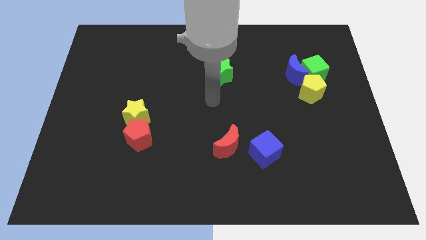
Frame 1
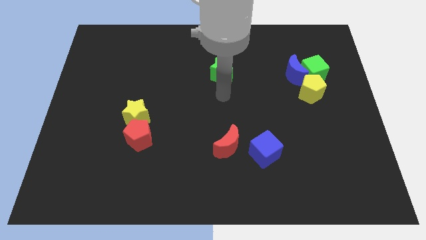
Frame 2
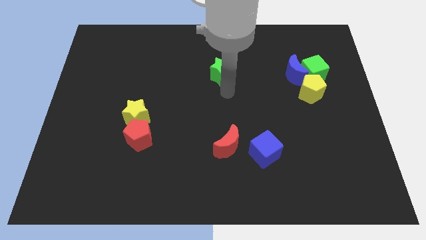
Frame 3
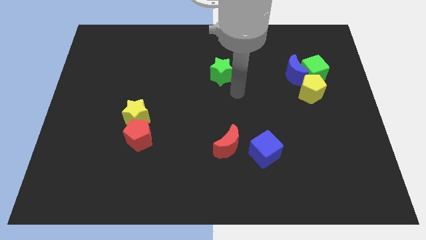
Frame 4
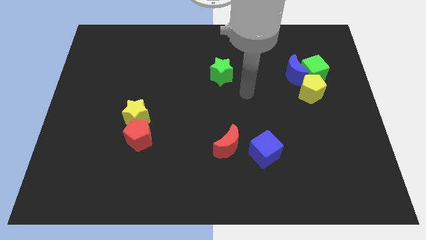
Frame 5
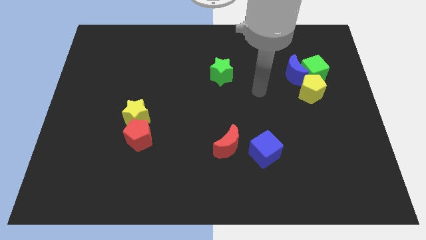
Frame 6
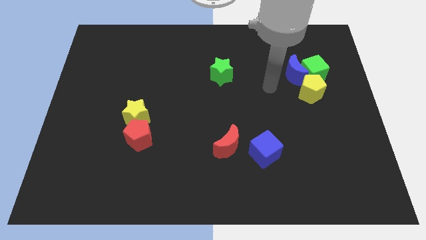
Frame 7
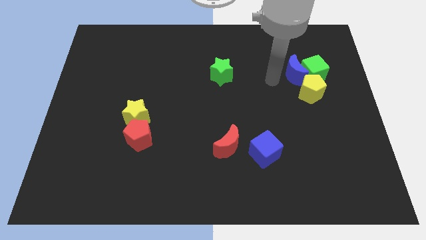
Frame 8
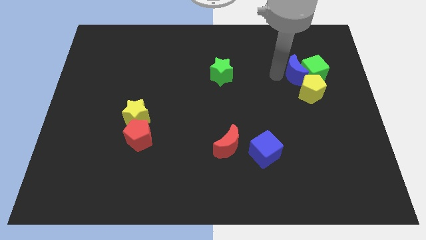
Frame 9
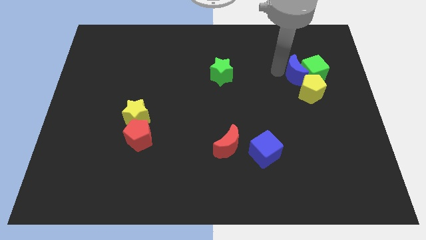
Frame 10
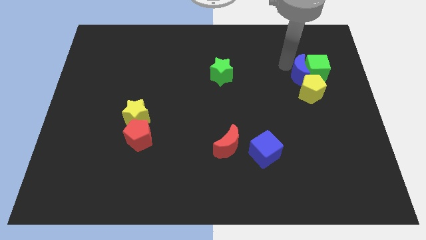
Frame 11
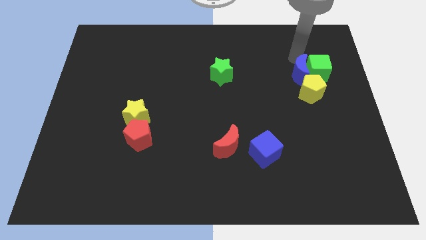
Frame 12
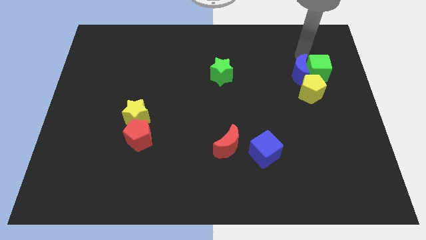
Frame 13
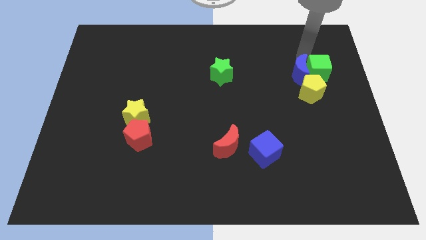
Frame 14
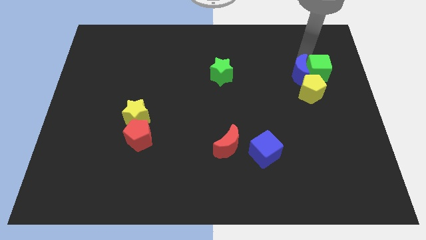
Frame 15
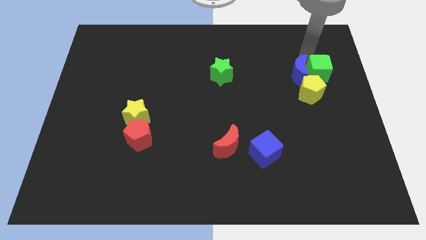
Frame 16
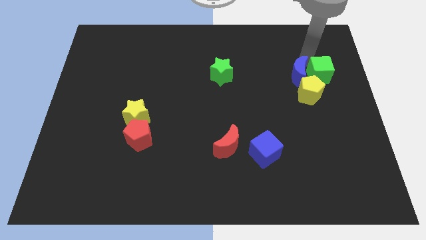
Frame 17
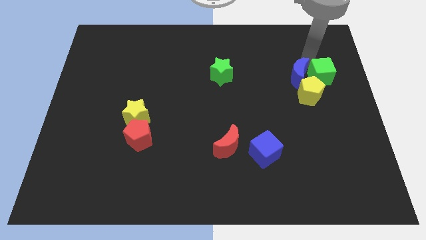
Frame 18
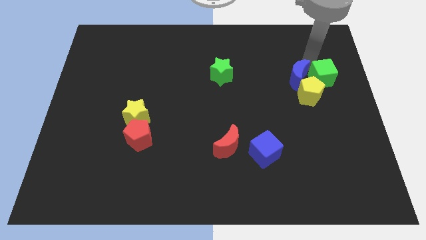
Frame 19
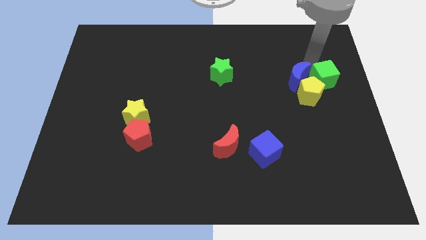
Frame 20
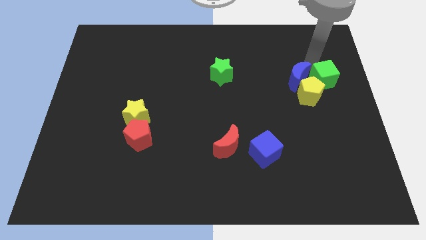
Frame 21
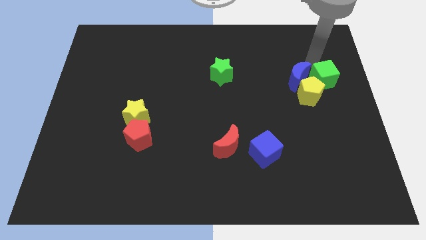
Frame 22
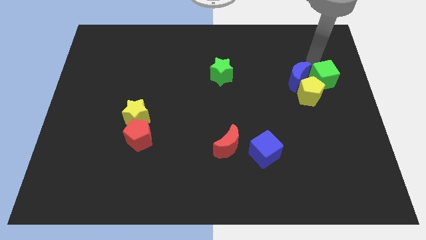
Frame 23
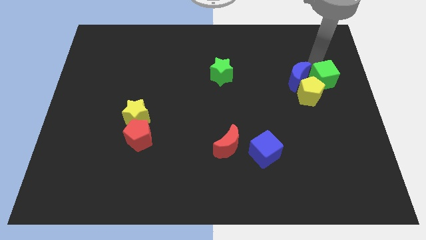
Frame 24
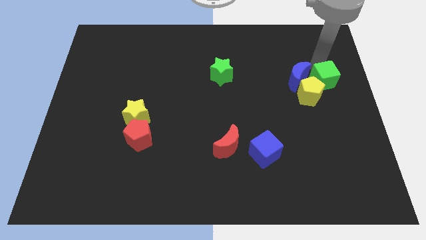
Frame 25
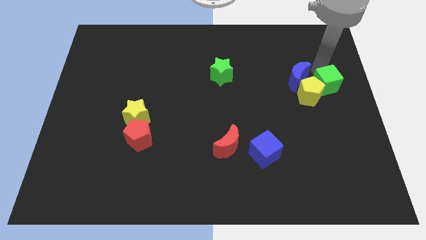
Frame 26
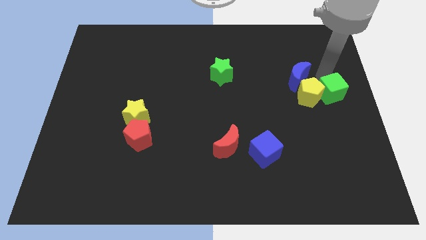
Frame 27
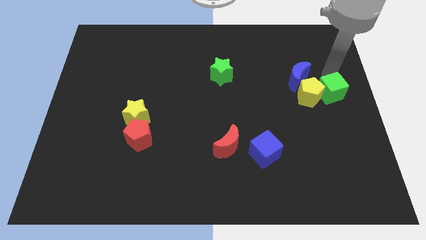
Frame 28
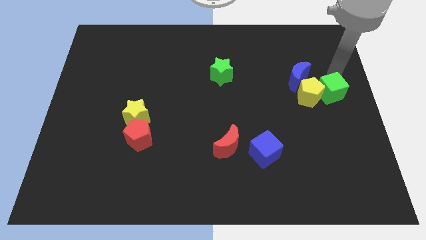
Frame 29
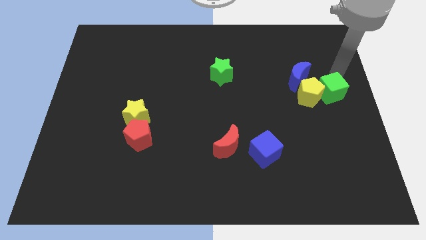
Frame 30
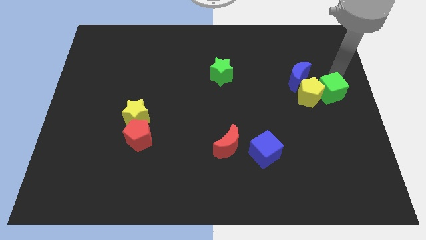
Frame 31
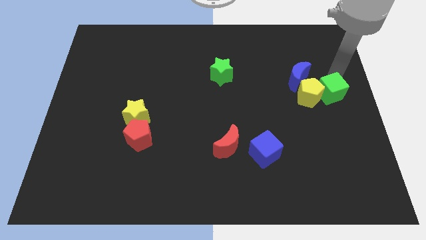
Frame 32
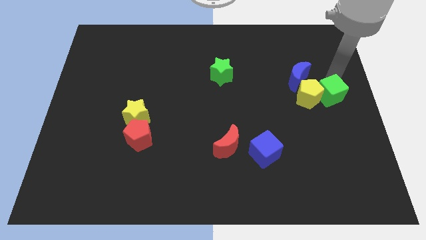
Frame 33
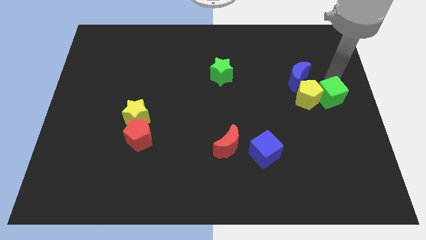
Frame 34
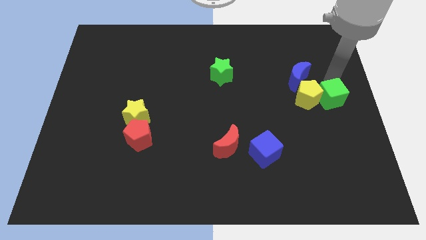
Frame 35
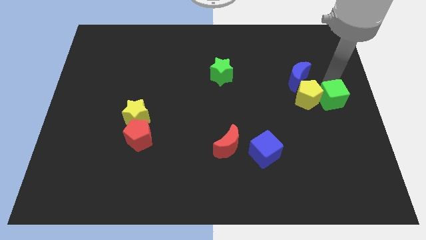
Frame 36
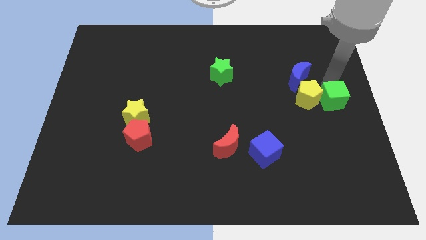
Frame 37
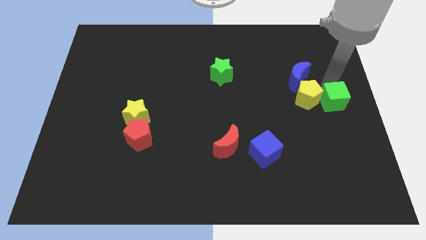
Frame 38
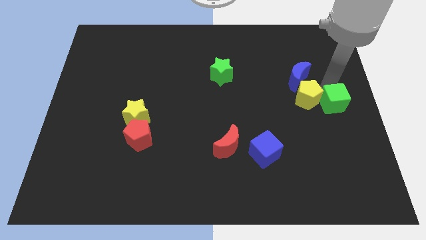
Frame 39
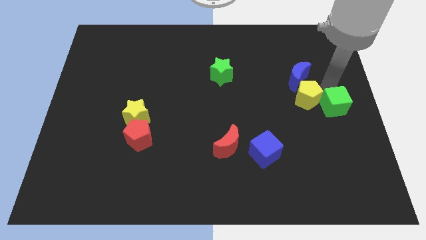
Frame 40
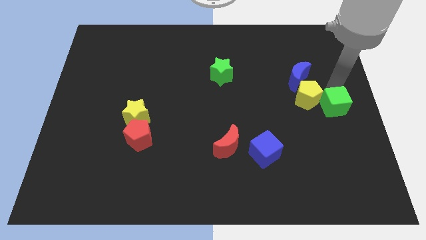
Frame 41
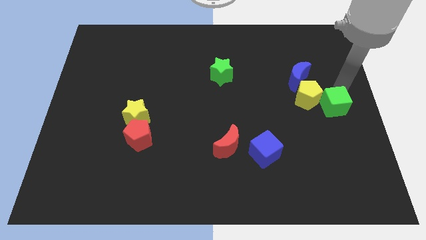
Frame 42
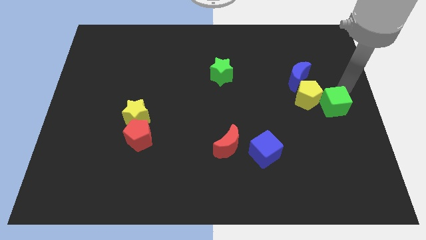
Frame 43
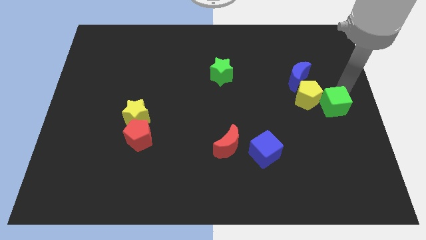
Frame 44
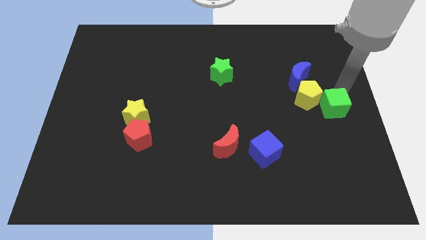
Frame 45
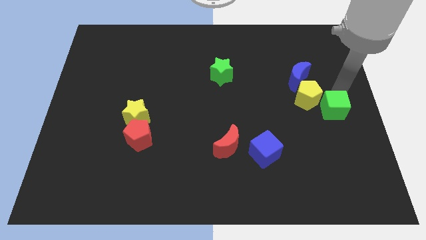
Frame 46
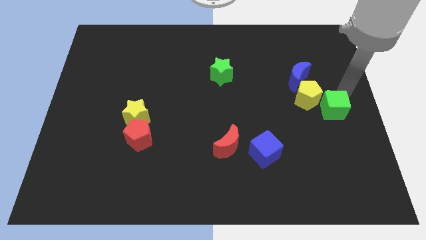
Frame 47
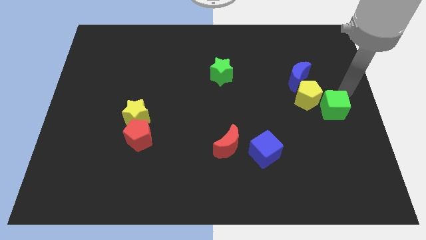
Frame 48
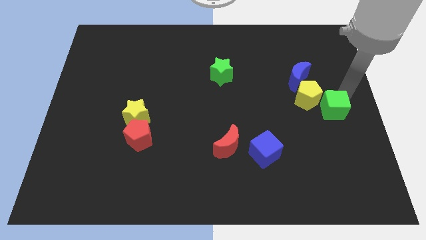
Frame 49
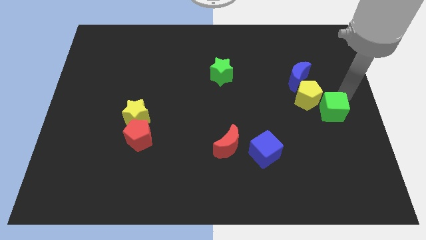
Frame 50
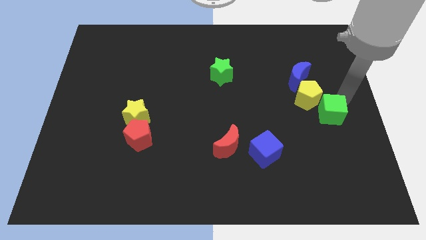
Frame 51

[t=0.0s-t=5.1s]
slide the green cube to the bottom side of the yellow pentagon

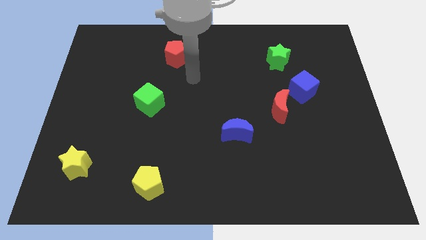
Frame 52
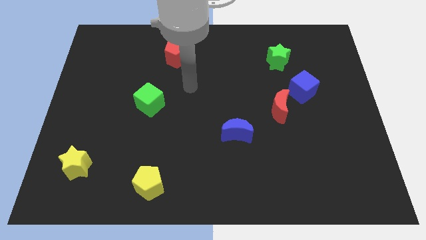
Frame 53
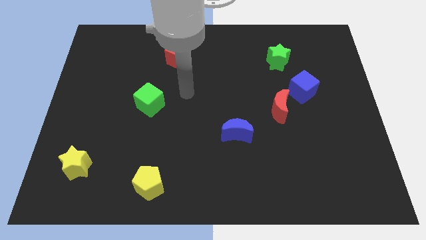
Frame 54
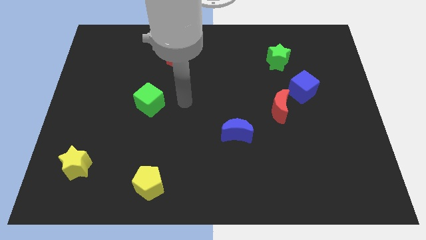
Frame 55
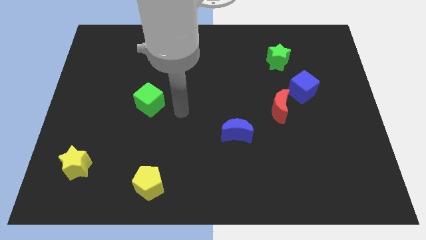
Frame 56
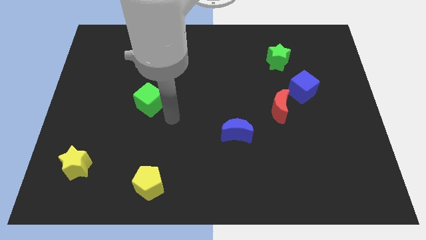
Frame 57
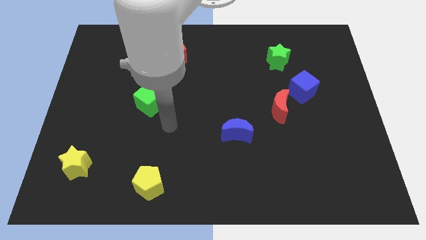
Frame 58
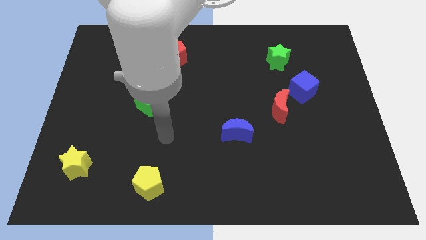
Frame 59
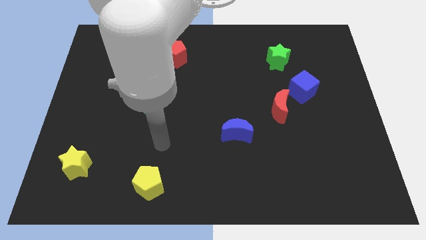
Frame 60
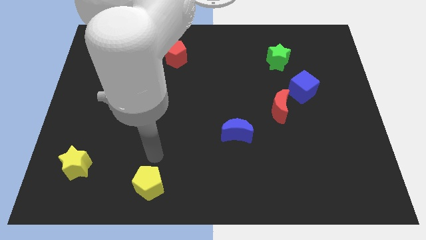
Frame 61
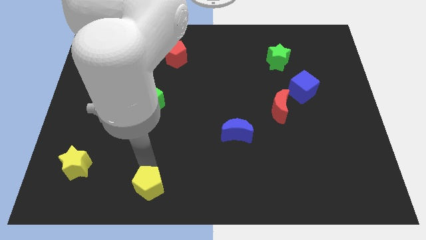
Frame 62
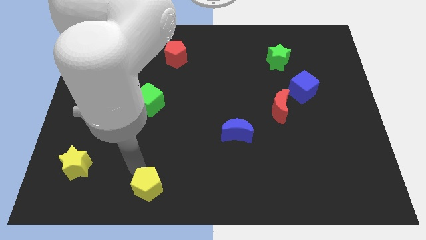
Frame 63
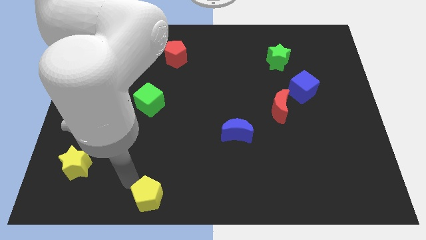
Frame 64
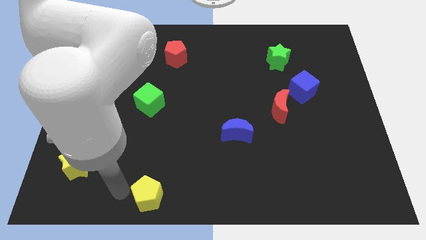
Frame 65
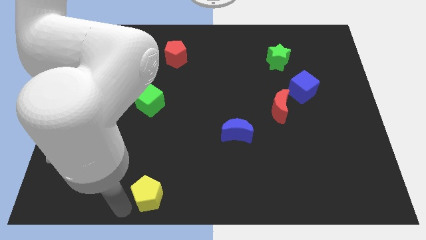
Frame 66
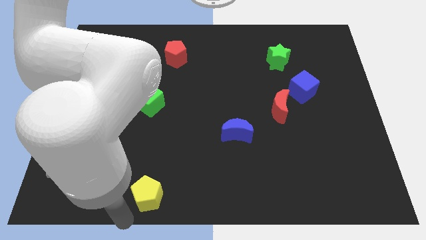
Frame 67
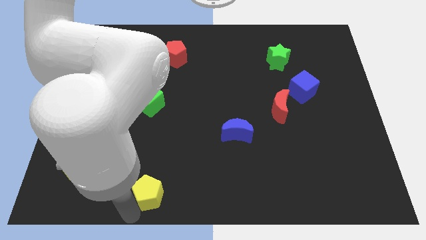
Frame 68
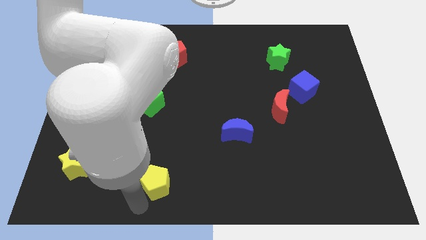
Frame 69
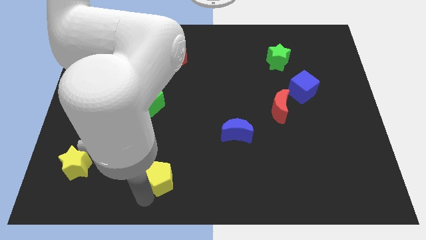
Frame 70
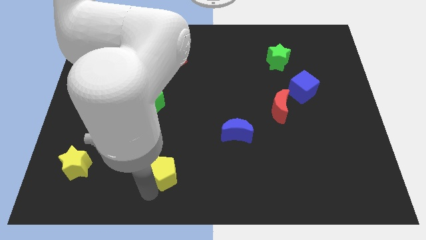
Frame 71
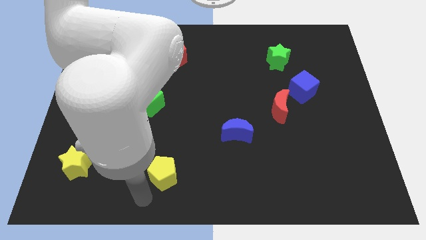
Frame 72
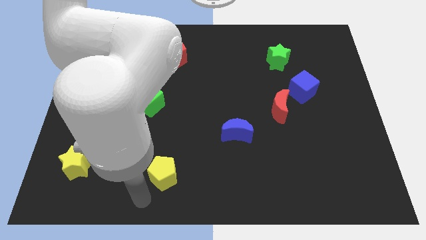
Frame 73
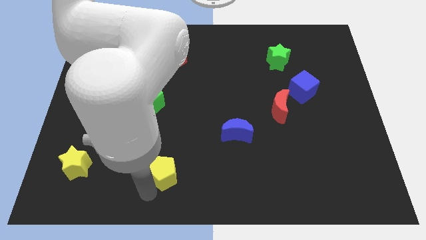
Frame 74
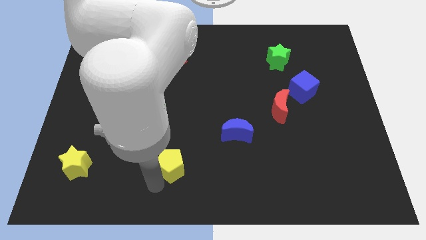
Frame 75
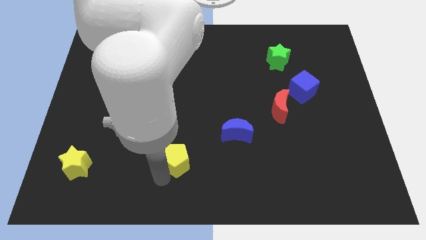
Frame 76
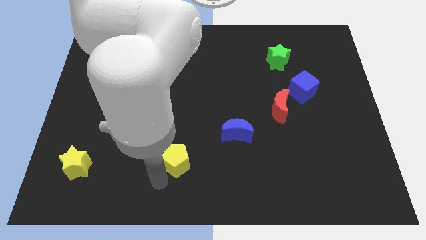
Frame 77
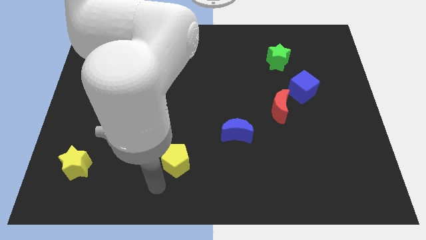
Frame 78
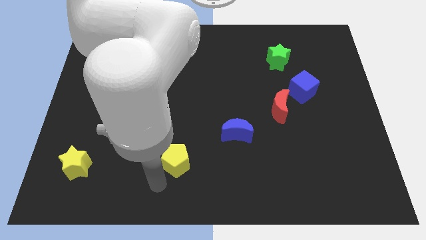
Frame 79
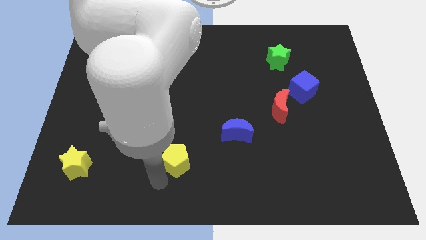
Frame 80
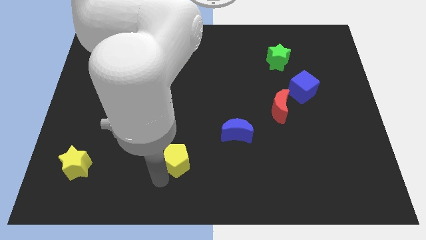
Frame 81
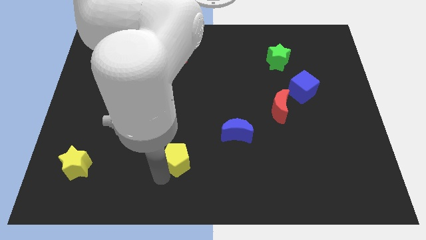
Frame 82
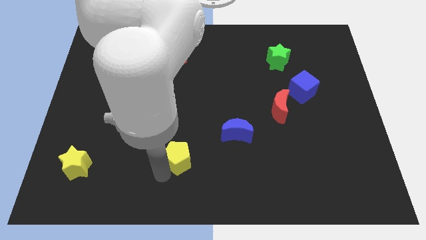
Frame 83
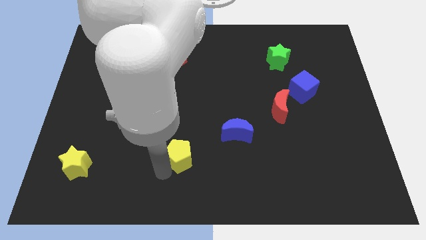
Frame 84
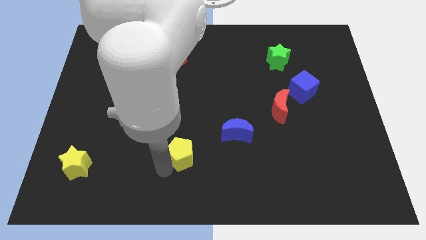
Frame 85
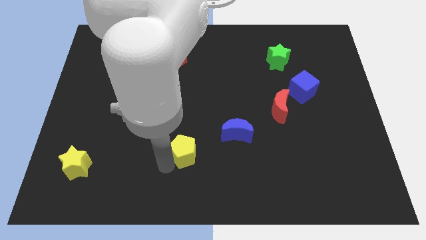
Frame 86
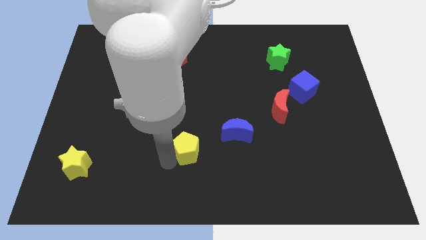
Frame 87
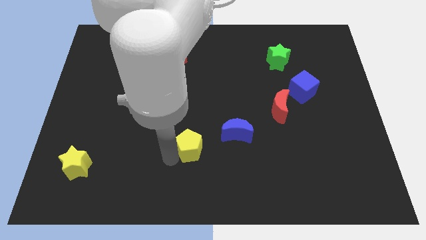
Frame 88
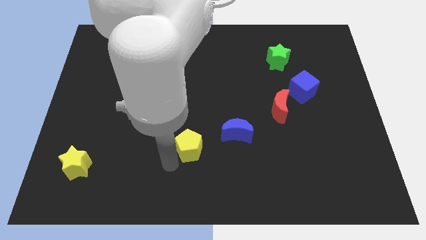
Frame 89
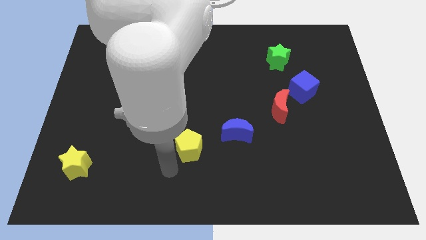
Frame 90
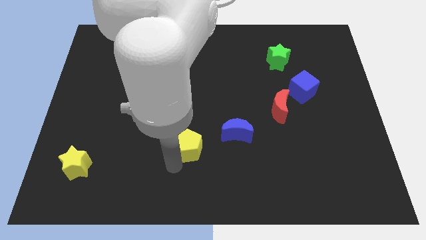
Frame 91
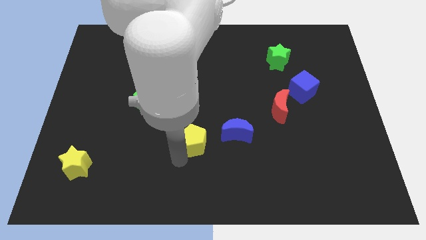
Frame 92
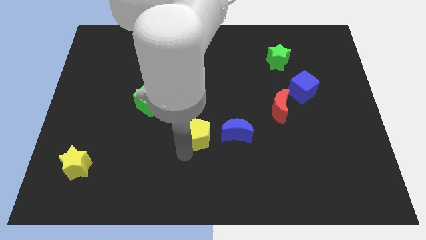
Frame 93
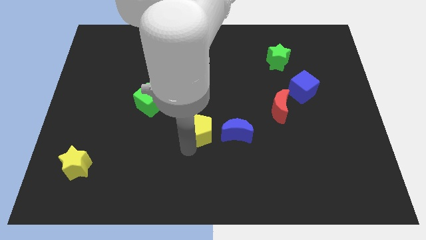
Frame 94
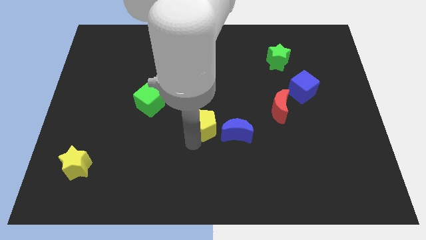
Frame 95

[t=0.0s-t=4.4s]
put the yellow pentagon diagonally up and to the left of the blue moon
